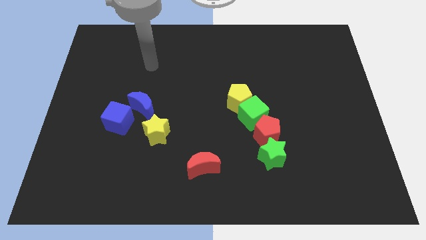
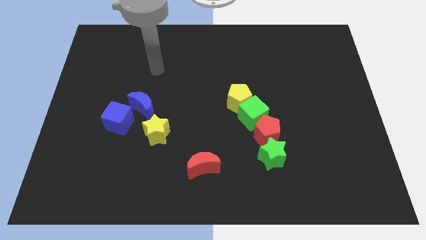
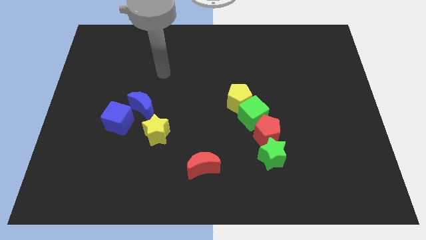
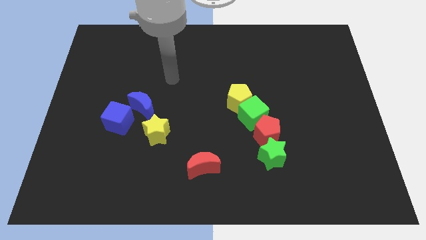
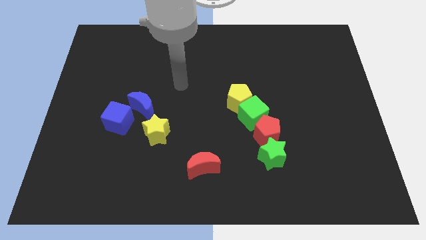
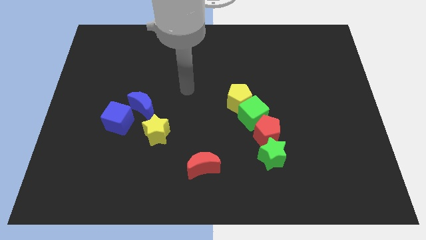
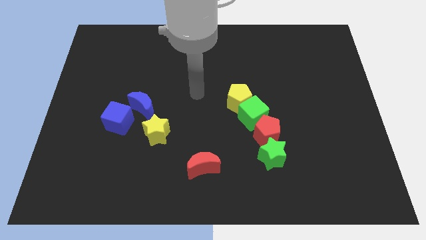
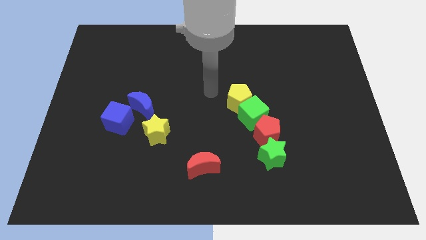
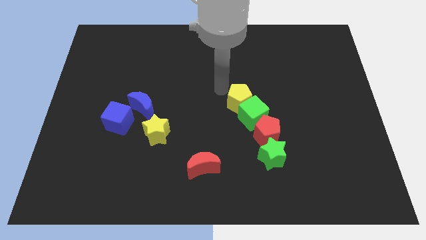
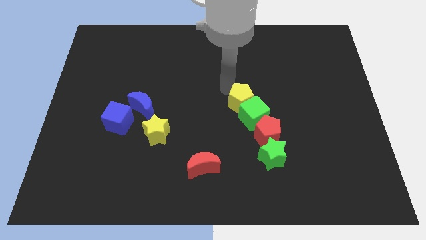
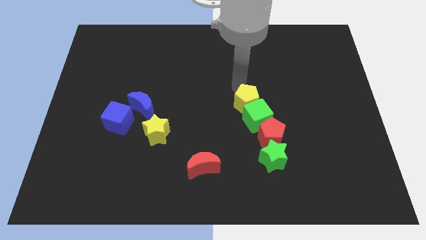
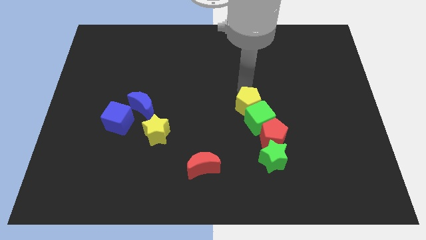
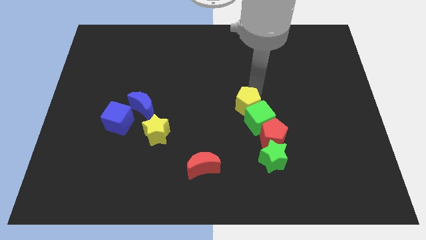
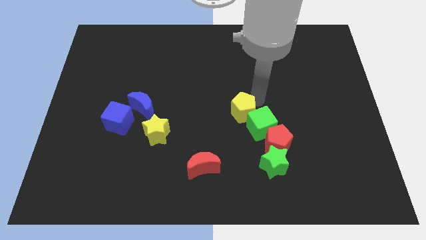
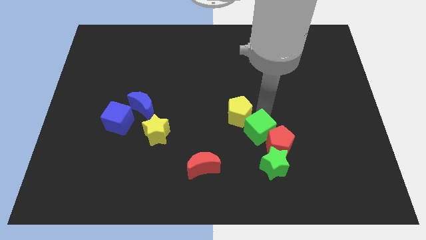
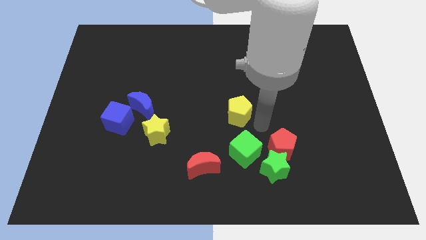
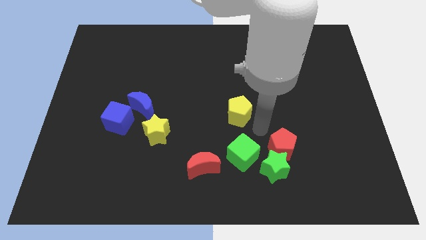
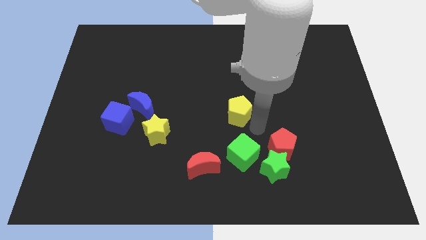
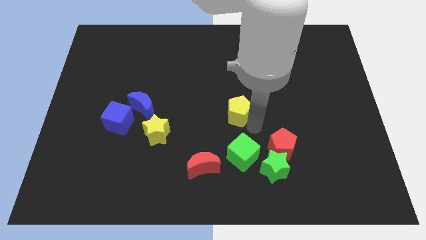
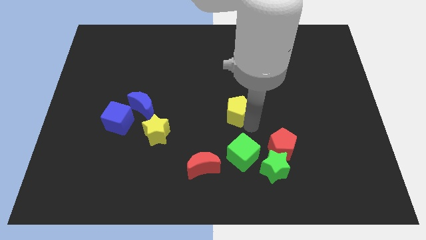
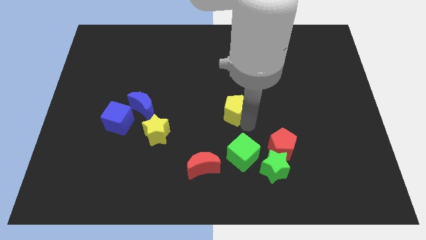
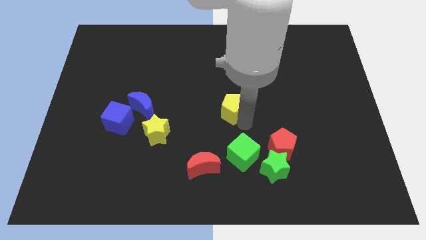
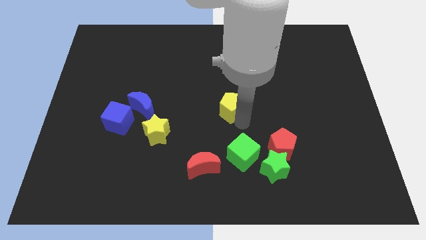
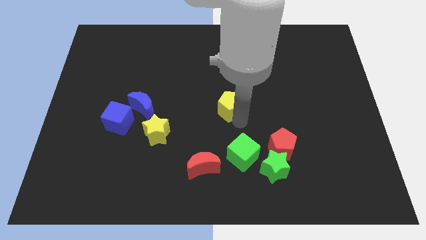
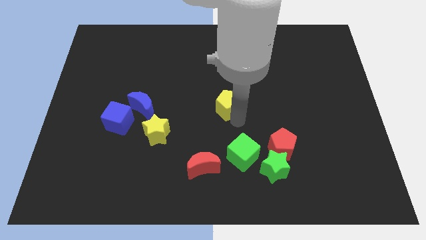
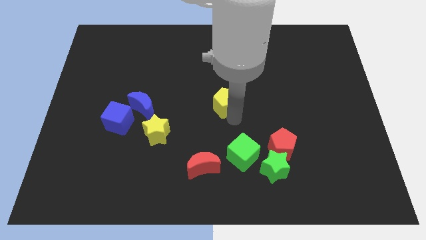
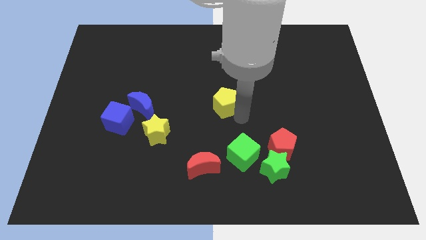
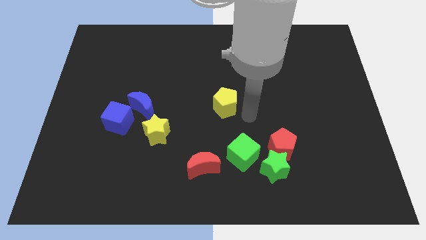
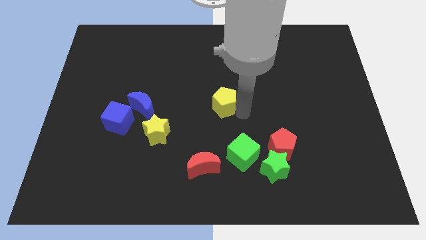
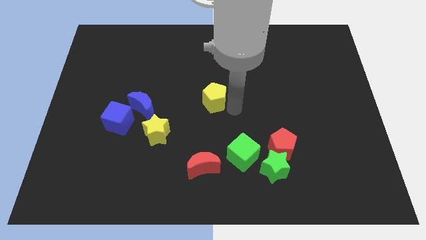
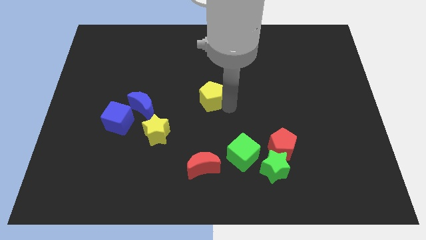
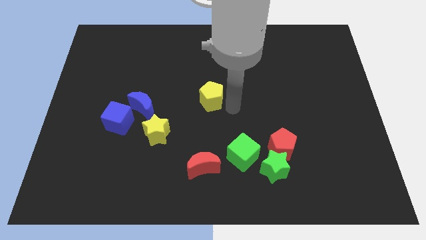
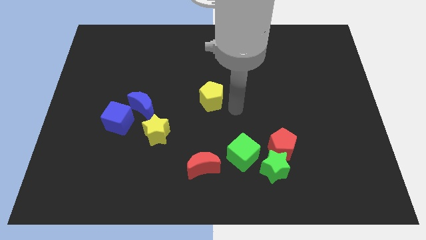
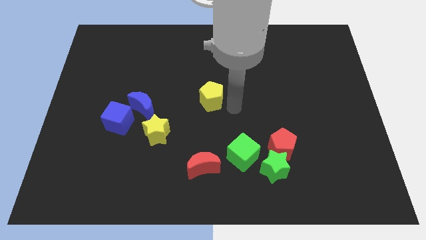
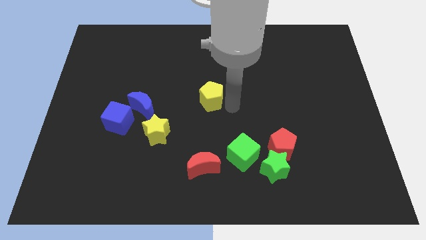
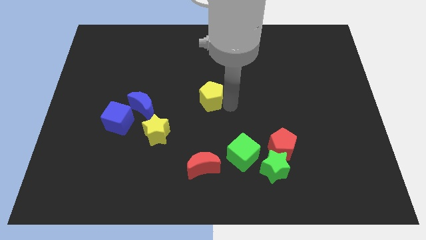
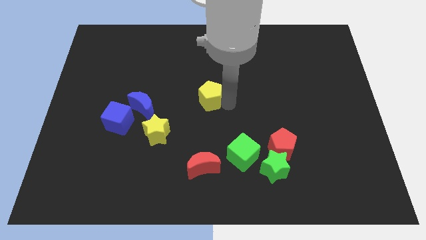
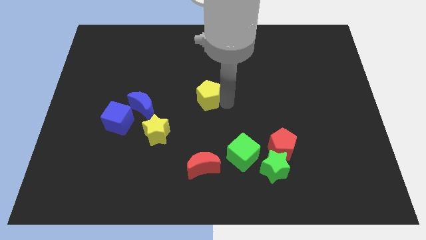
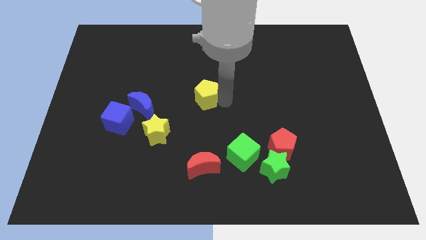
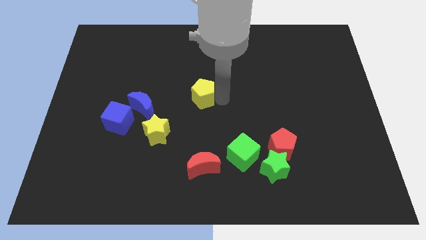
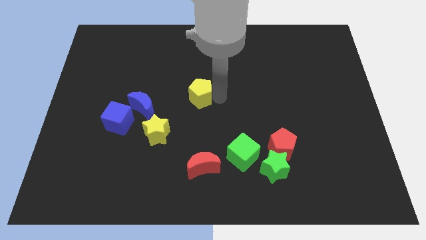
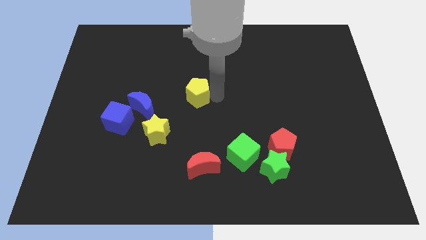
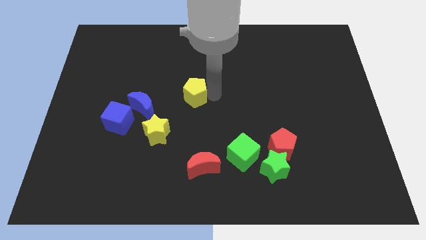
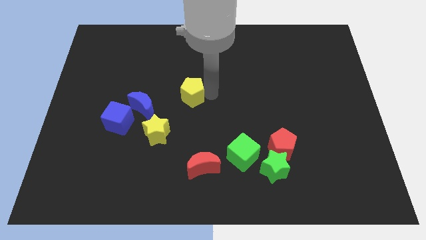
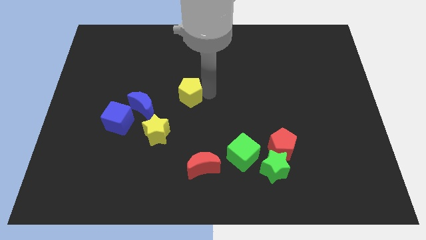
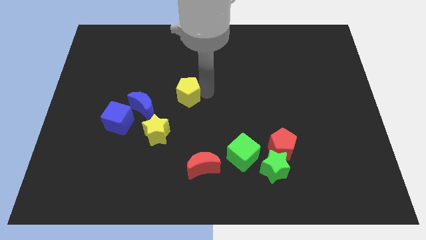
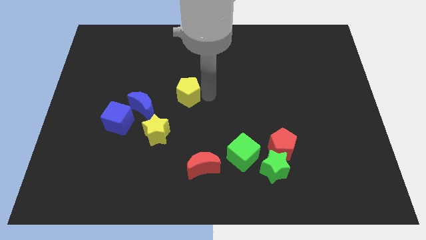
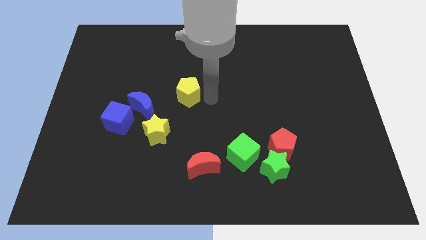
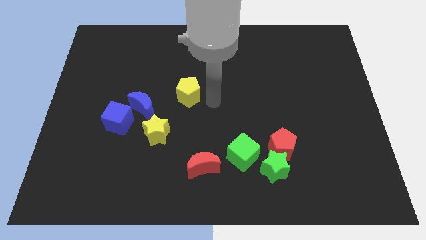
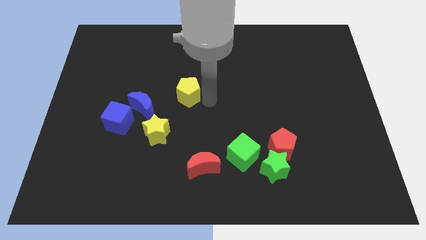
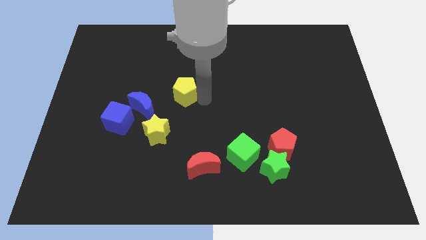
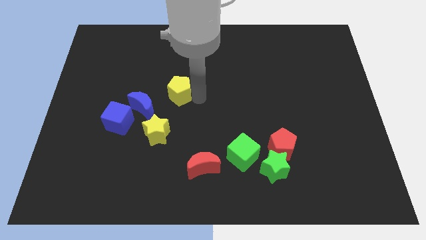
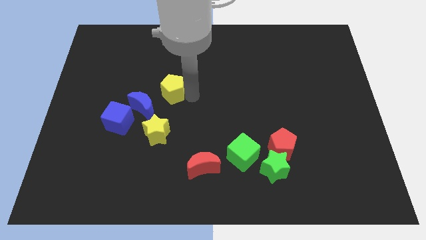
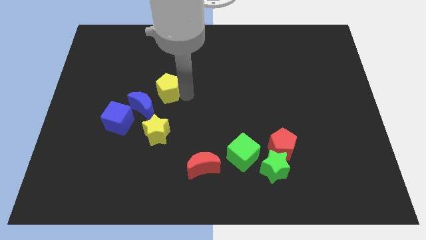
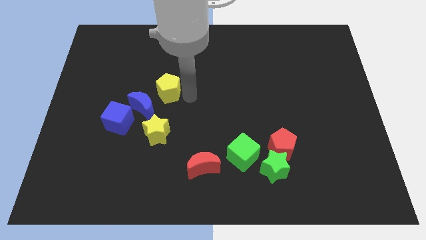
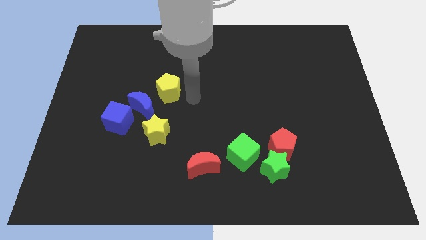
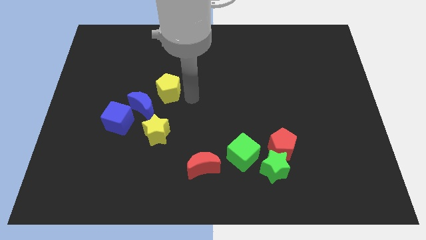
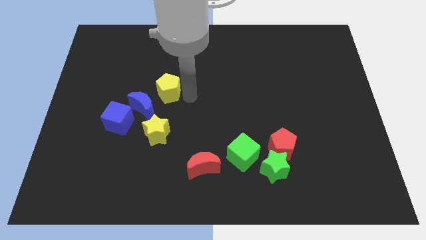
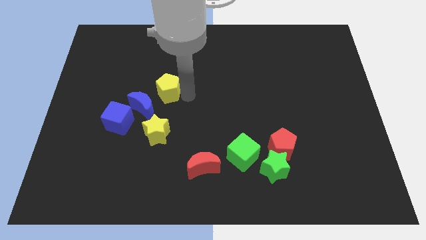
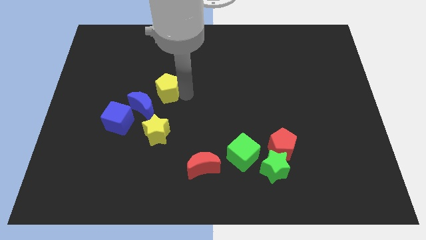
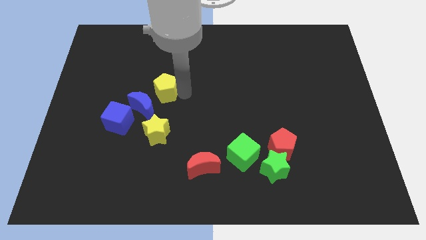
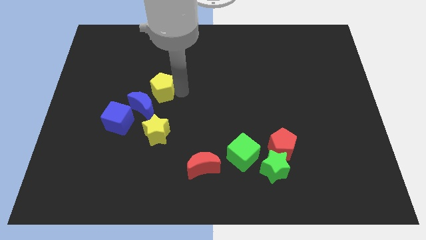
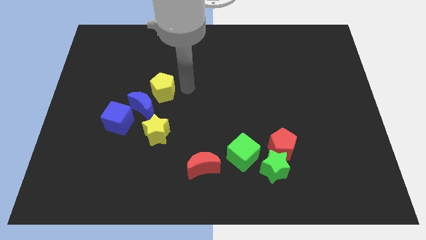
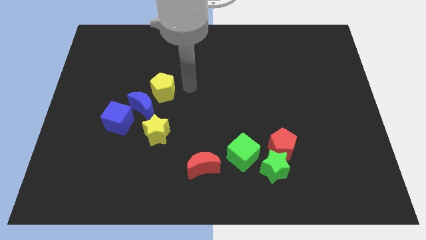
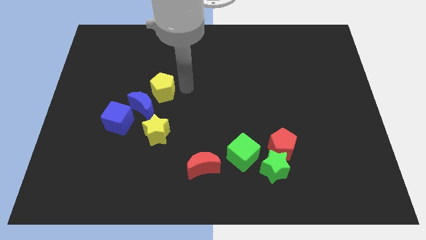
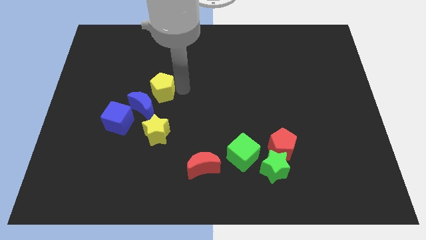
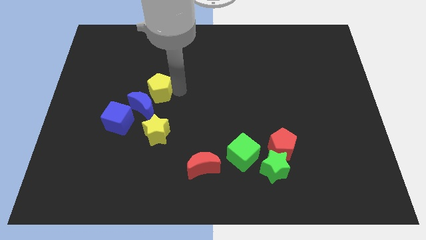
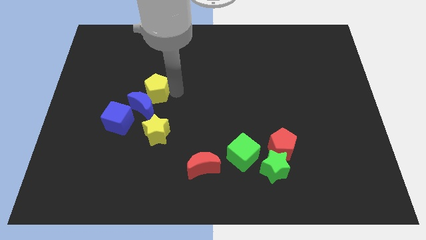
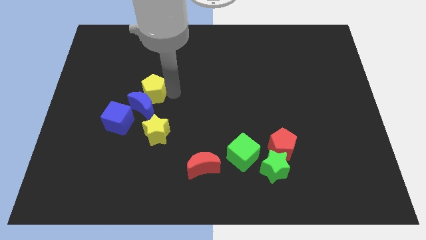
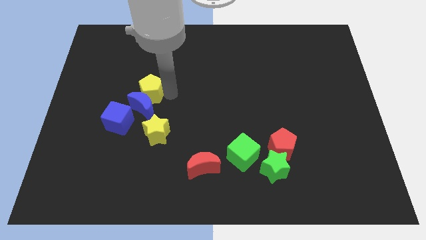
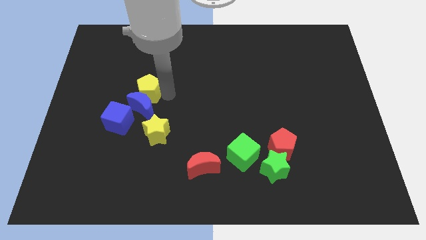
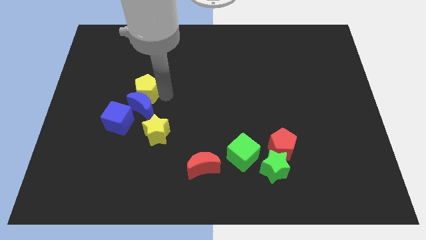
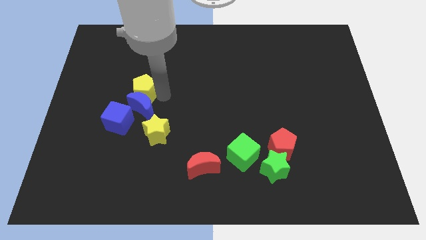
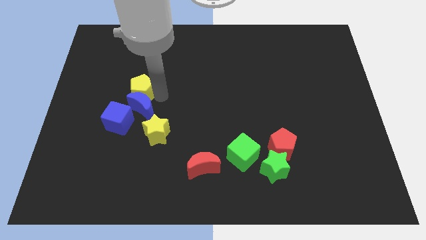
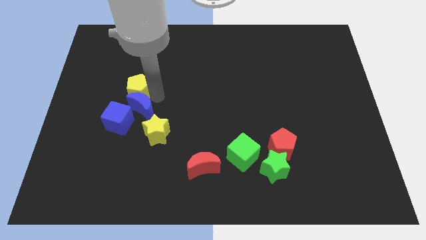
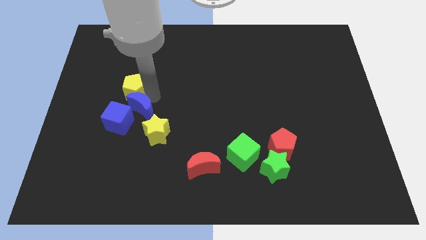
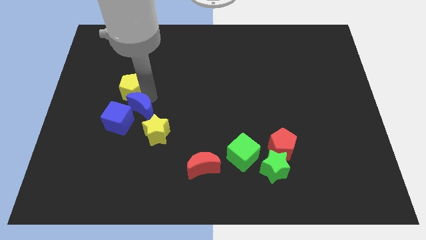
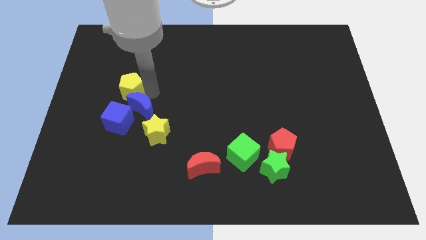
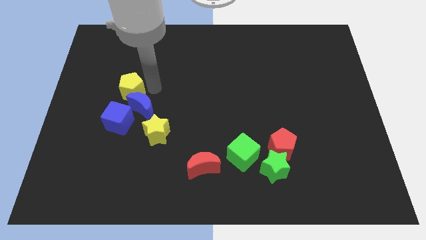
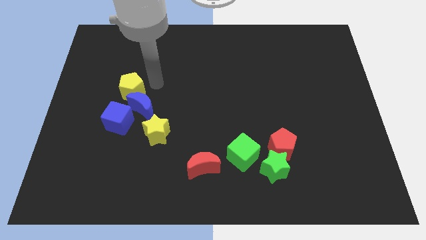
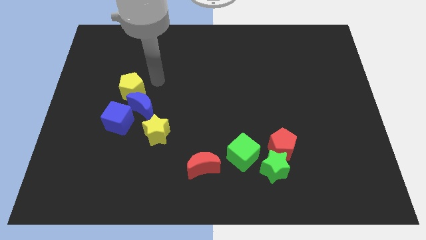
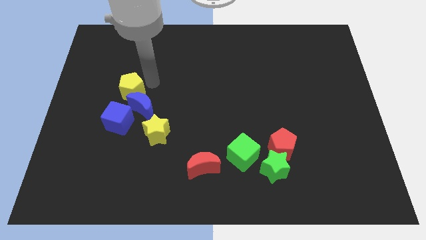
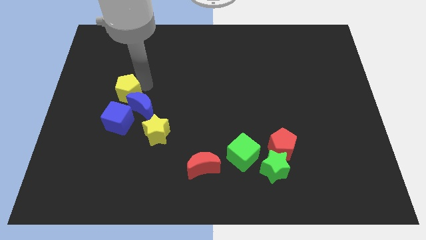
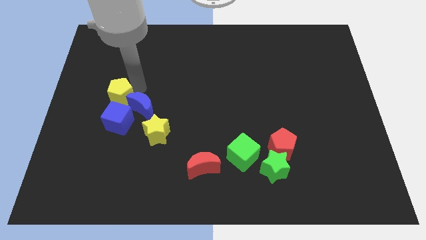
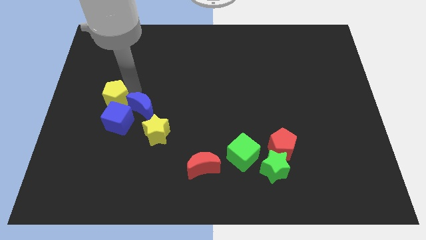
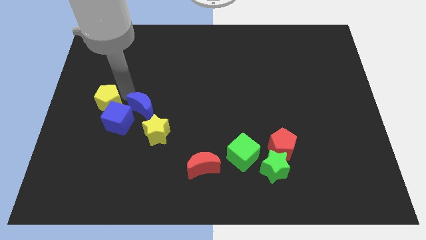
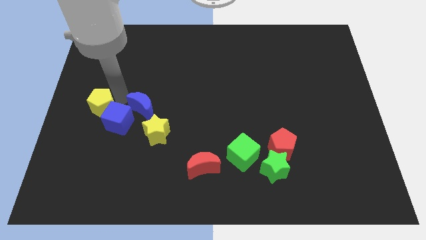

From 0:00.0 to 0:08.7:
slide the yellow pentagon to the center left
